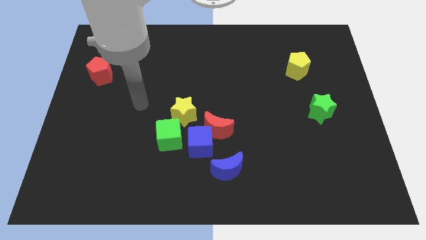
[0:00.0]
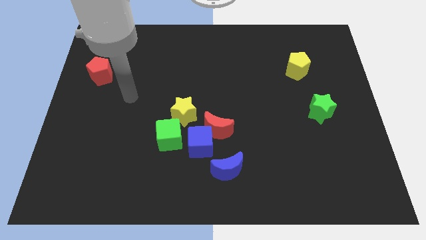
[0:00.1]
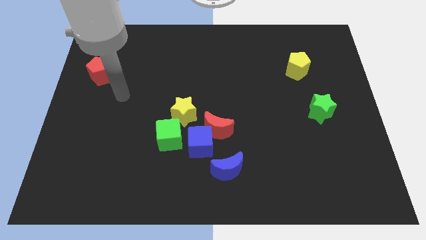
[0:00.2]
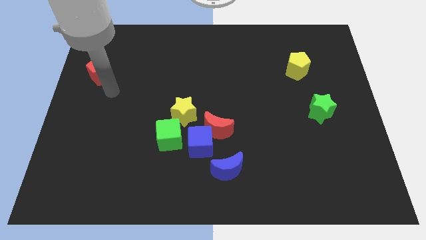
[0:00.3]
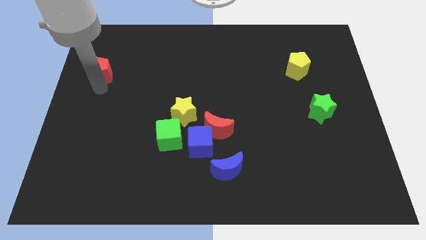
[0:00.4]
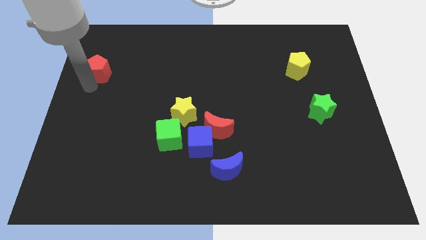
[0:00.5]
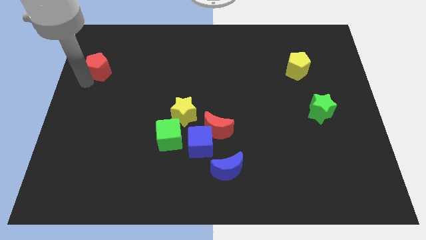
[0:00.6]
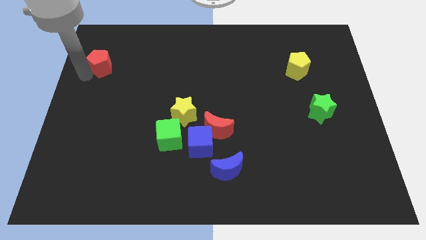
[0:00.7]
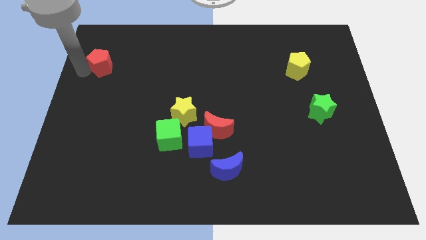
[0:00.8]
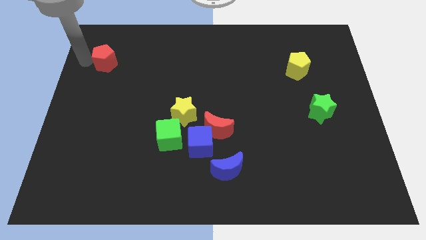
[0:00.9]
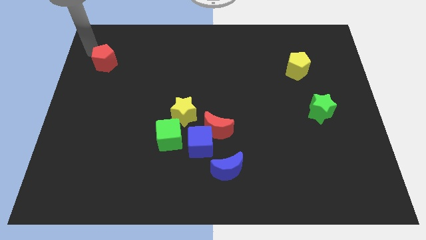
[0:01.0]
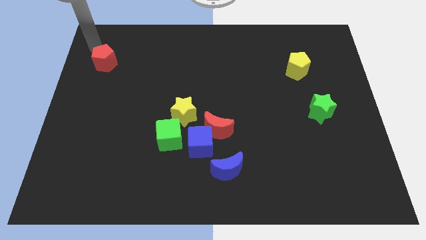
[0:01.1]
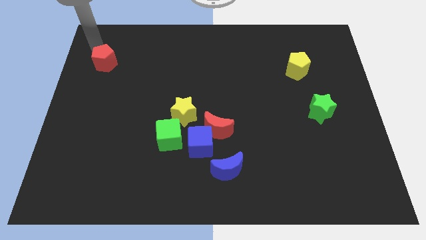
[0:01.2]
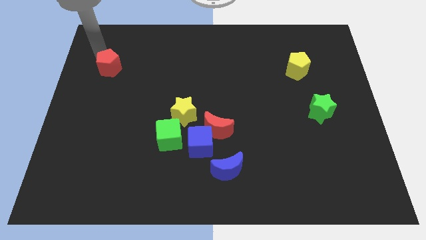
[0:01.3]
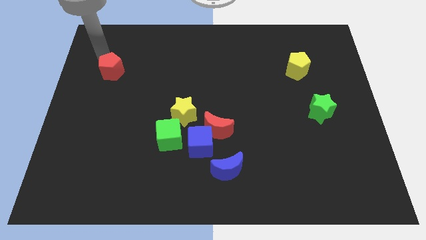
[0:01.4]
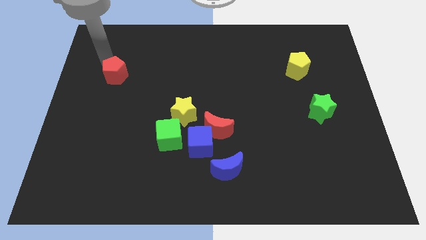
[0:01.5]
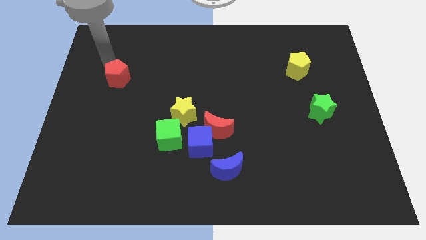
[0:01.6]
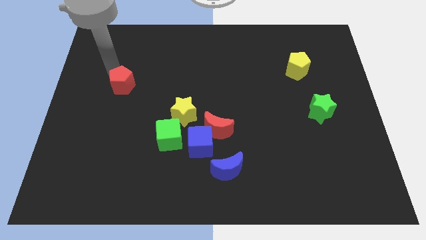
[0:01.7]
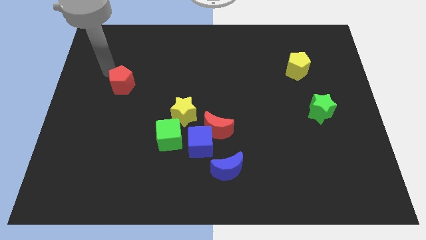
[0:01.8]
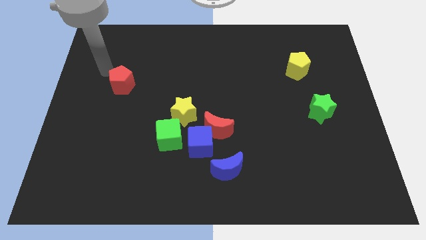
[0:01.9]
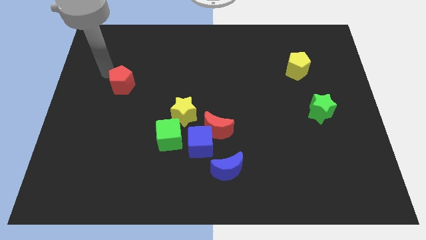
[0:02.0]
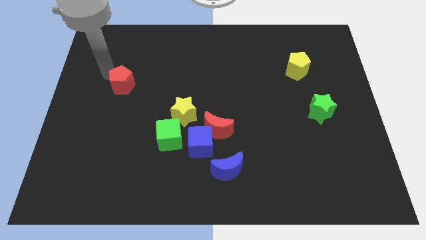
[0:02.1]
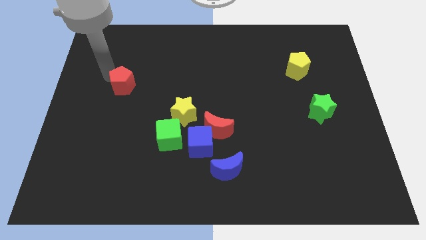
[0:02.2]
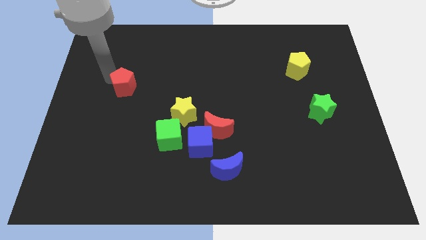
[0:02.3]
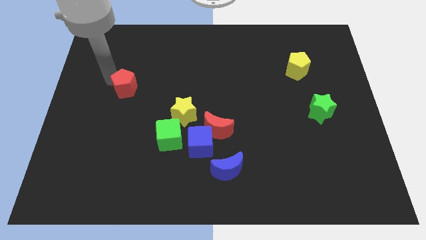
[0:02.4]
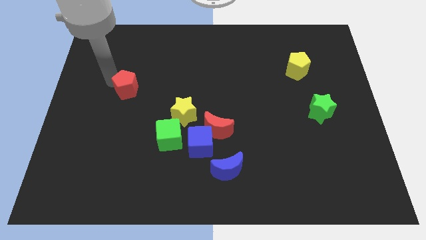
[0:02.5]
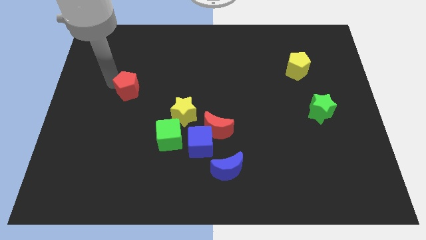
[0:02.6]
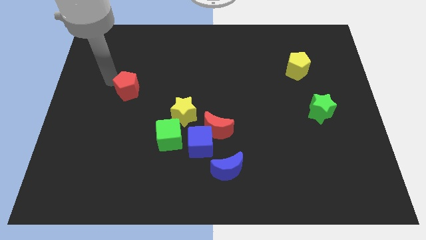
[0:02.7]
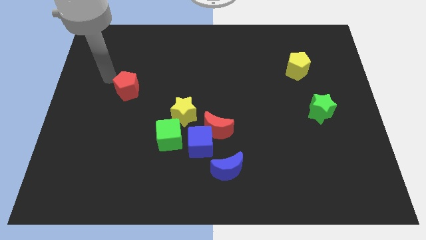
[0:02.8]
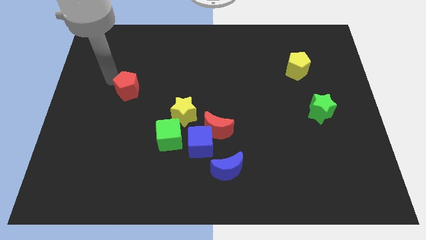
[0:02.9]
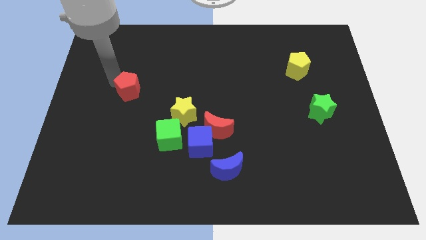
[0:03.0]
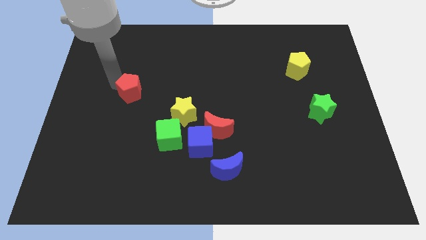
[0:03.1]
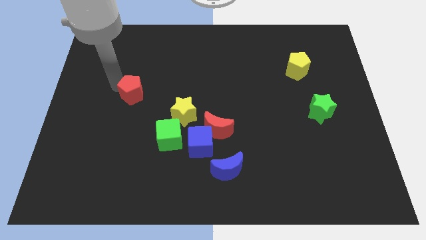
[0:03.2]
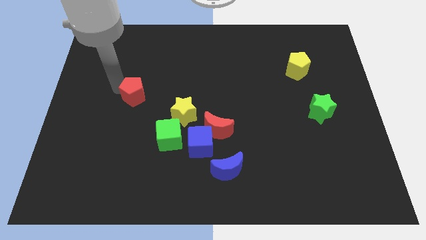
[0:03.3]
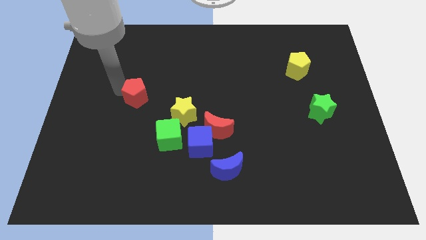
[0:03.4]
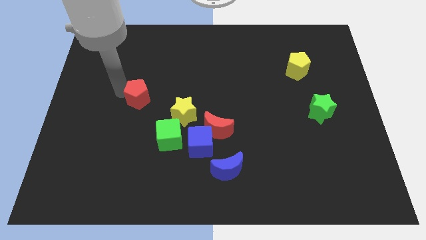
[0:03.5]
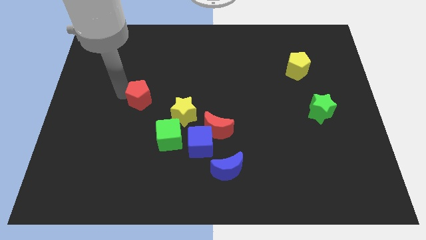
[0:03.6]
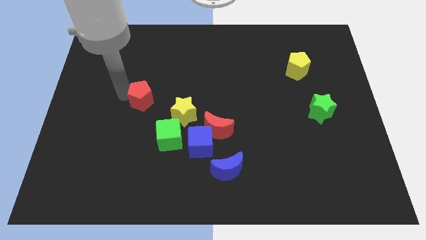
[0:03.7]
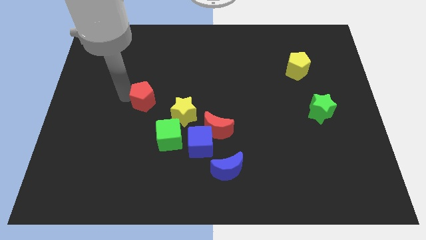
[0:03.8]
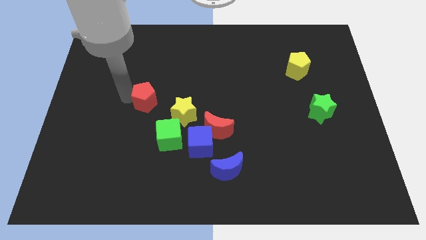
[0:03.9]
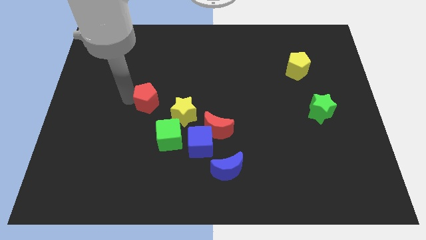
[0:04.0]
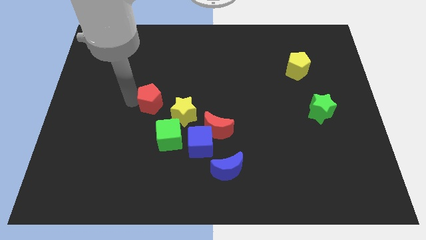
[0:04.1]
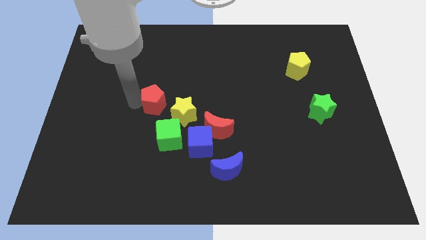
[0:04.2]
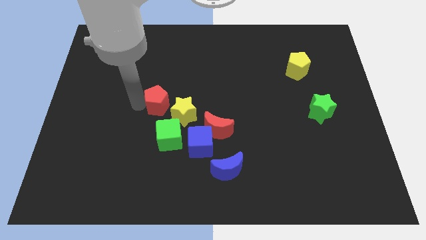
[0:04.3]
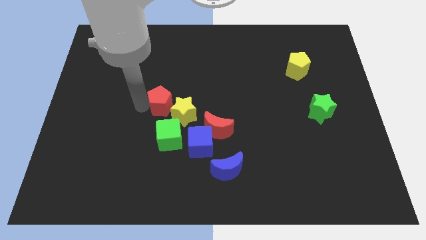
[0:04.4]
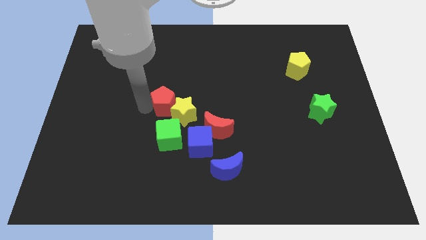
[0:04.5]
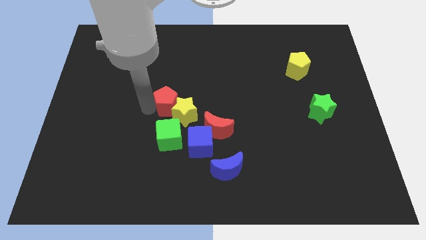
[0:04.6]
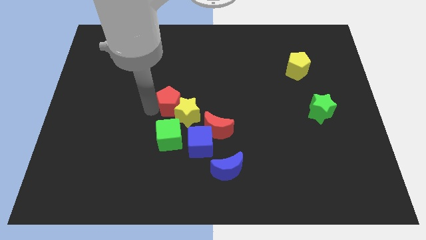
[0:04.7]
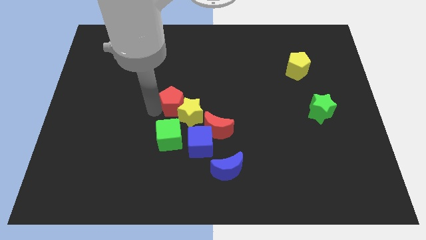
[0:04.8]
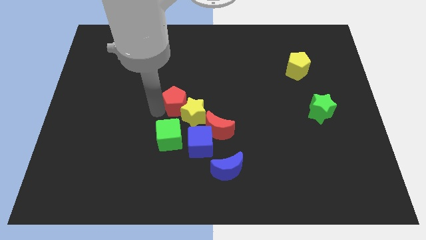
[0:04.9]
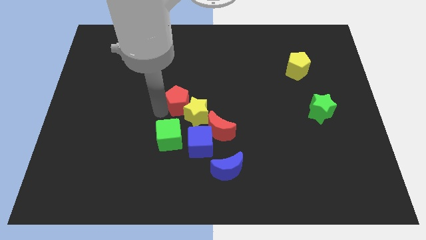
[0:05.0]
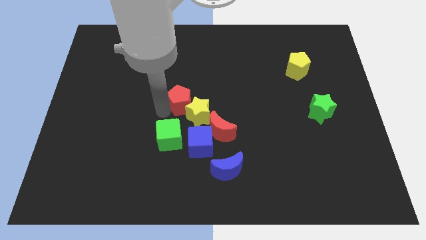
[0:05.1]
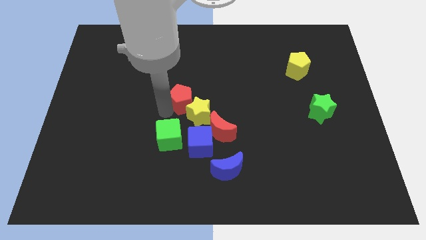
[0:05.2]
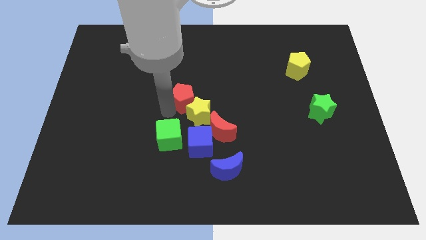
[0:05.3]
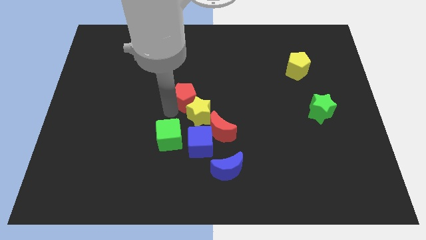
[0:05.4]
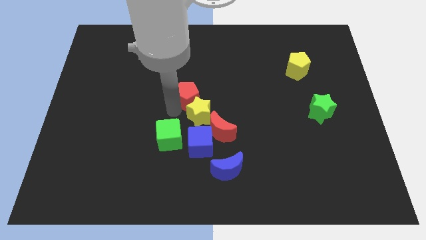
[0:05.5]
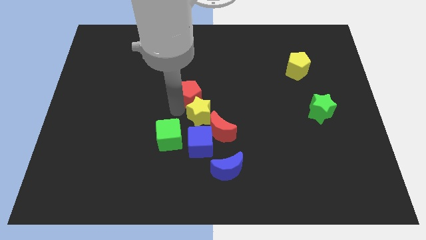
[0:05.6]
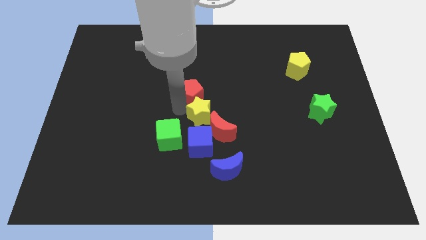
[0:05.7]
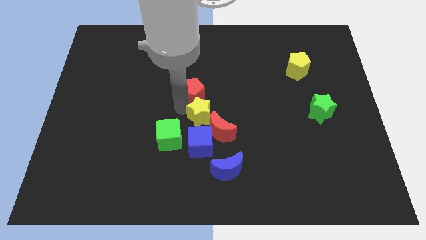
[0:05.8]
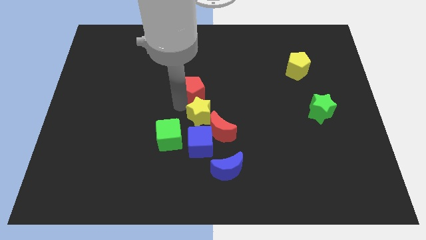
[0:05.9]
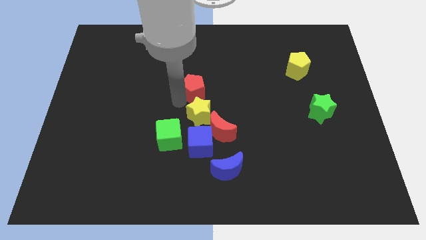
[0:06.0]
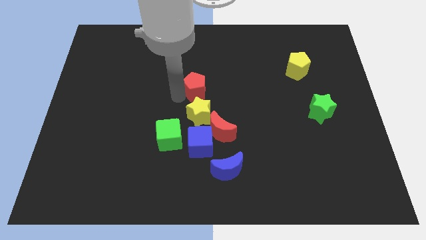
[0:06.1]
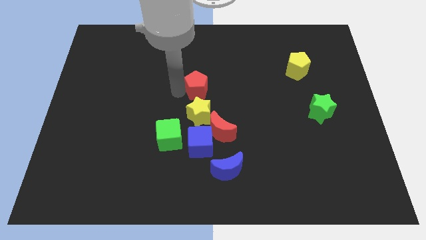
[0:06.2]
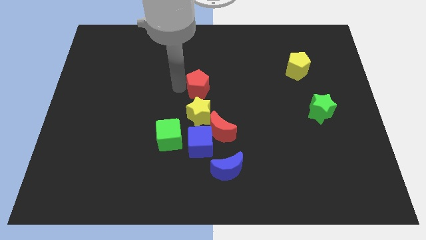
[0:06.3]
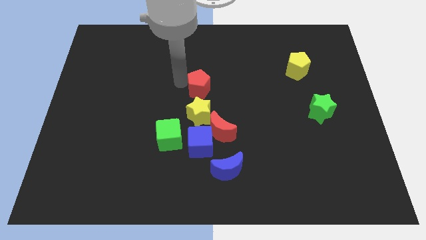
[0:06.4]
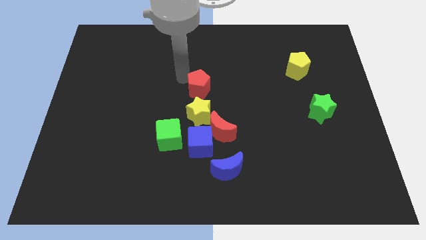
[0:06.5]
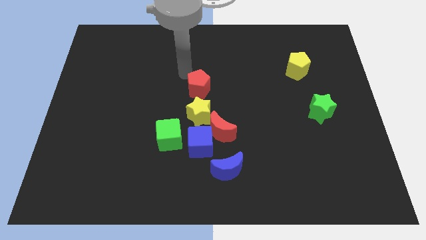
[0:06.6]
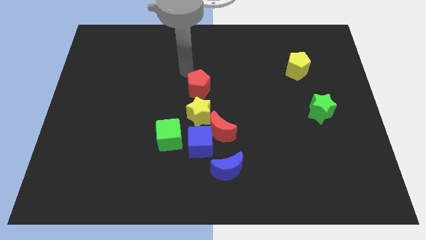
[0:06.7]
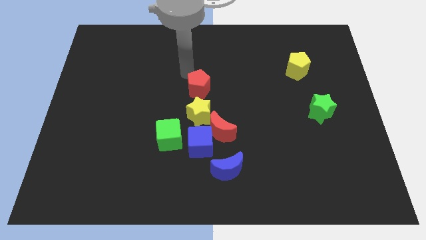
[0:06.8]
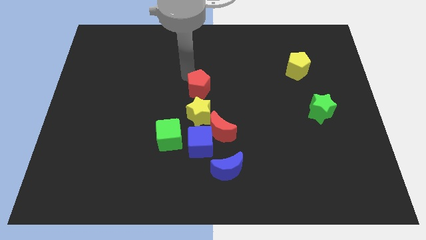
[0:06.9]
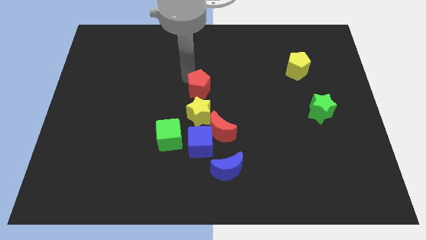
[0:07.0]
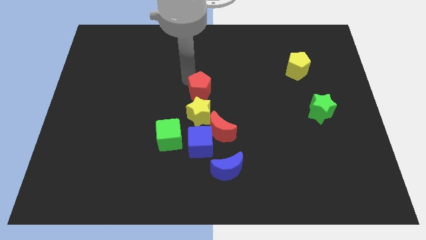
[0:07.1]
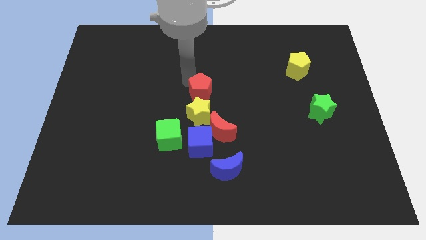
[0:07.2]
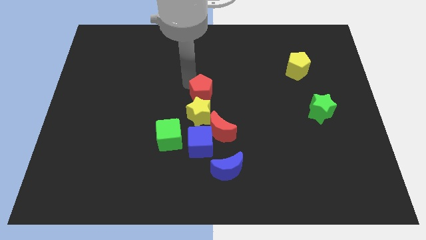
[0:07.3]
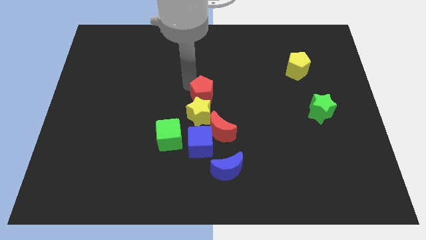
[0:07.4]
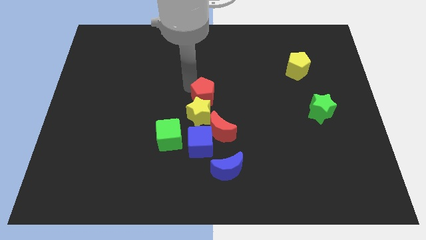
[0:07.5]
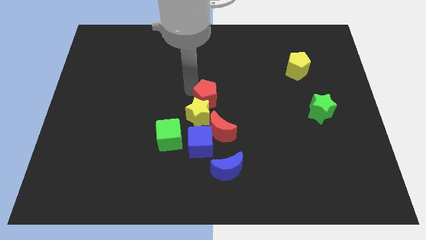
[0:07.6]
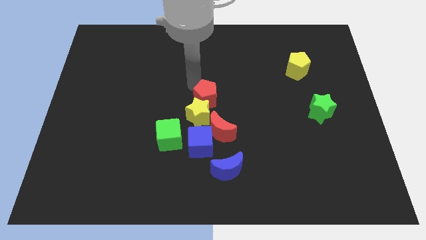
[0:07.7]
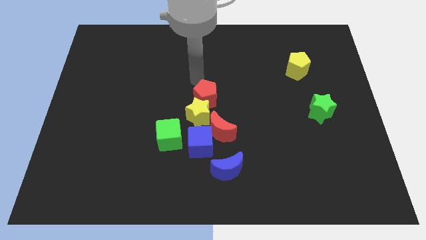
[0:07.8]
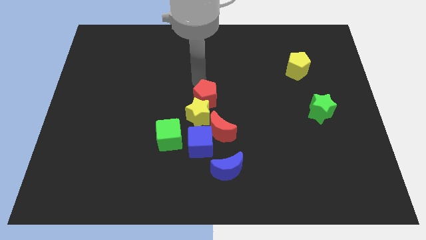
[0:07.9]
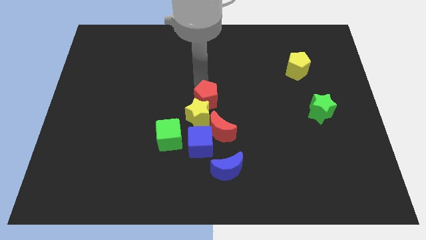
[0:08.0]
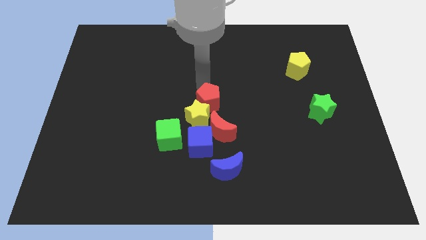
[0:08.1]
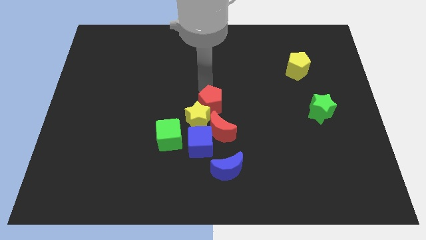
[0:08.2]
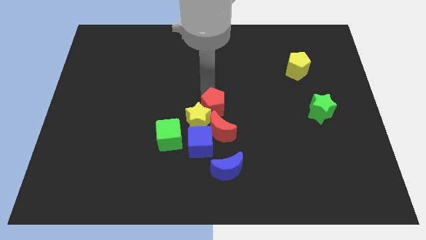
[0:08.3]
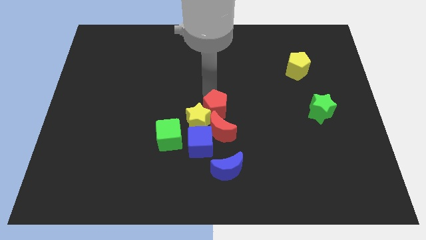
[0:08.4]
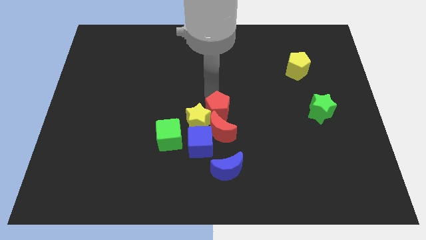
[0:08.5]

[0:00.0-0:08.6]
push the red pentagon next to the red moon
